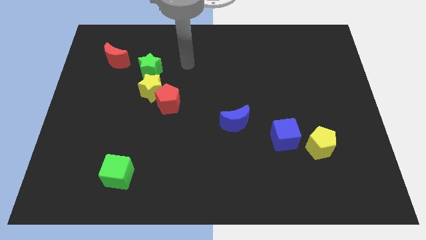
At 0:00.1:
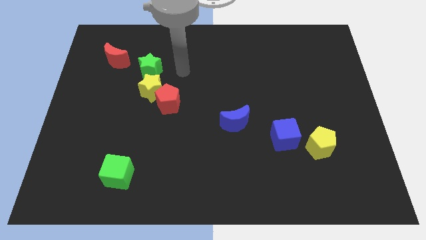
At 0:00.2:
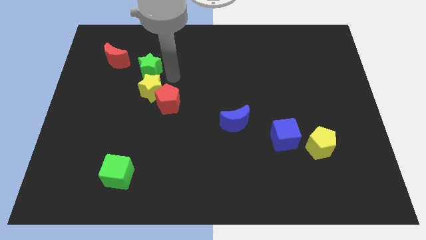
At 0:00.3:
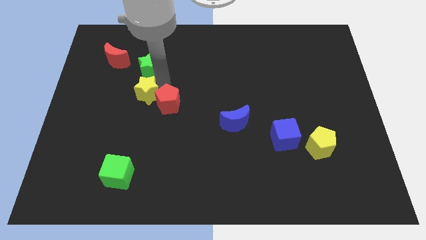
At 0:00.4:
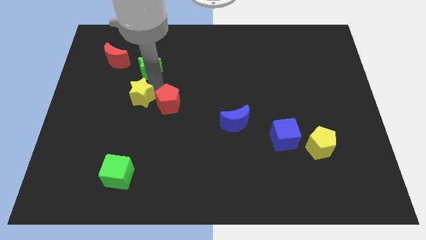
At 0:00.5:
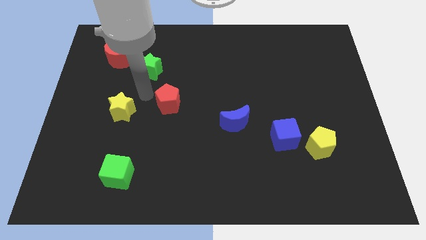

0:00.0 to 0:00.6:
move the red pentagon away from the yellow star

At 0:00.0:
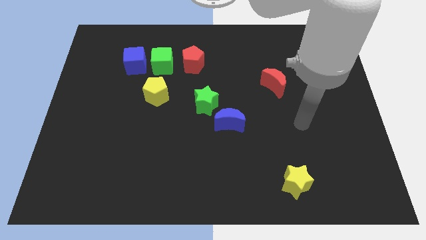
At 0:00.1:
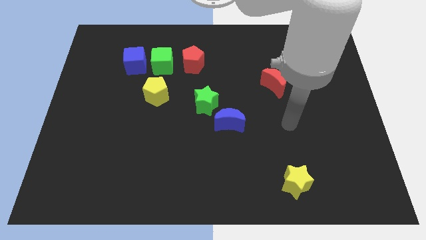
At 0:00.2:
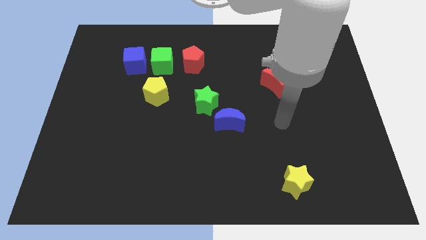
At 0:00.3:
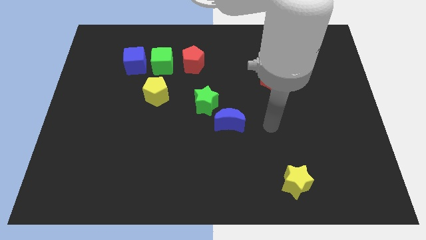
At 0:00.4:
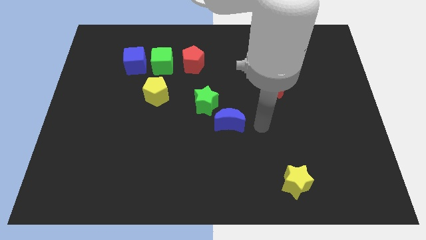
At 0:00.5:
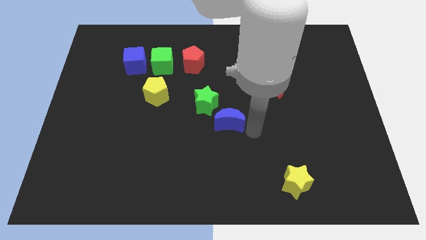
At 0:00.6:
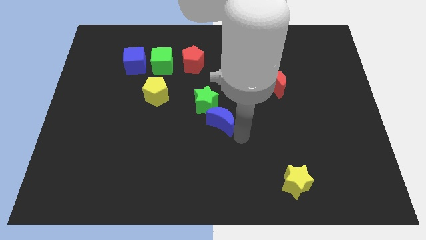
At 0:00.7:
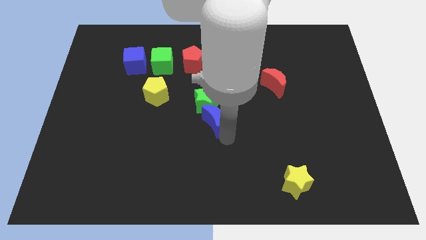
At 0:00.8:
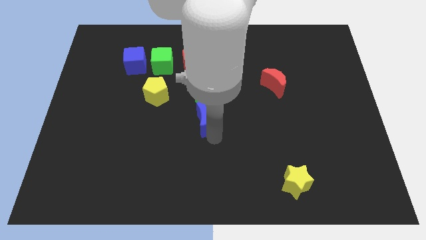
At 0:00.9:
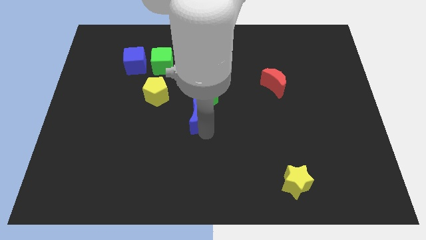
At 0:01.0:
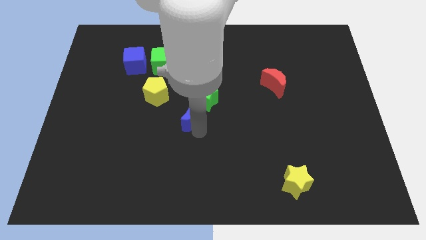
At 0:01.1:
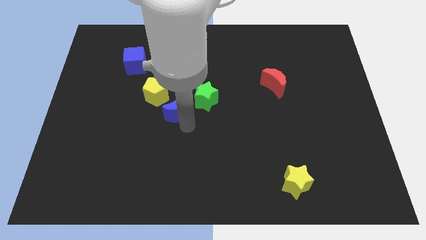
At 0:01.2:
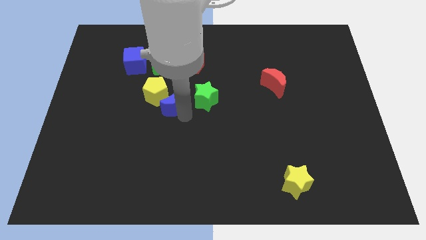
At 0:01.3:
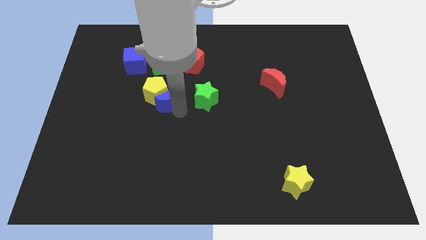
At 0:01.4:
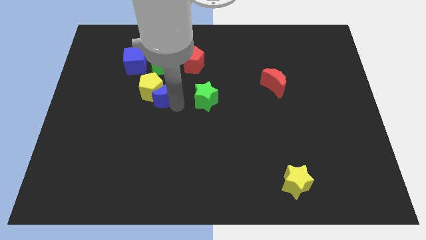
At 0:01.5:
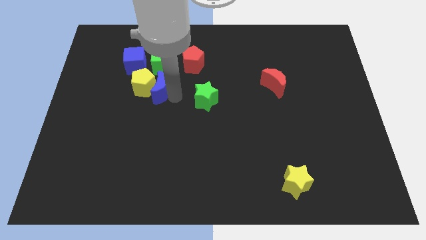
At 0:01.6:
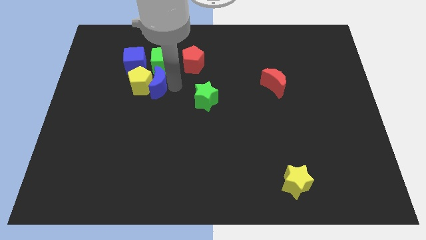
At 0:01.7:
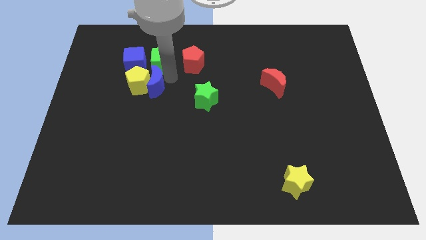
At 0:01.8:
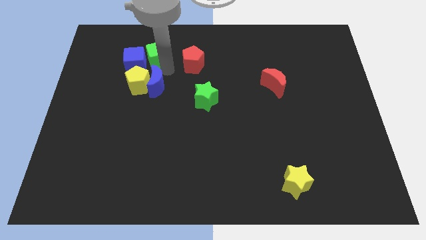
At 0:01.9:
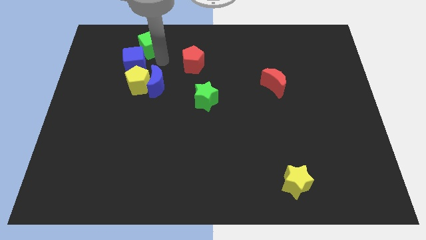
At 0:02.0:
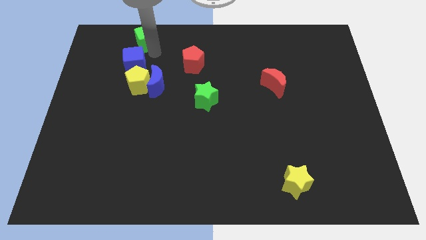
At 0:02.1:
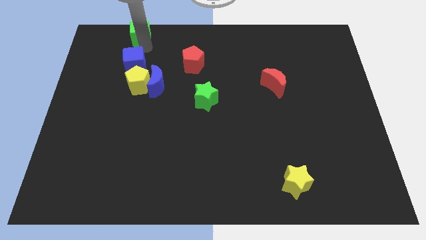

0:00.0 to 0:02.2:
separate the blue cube from the green cube

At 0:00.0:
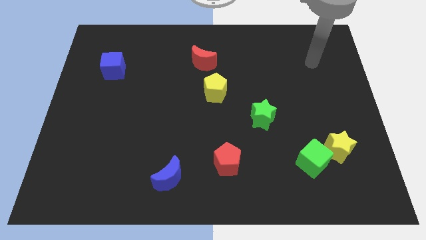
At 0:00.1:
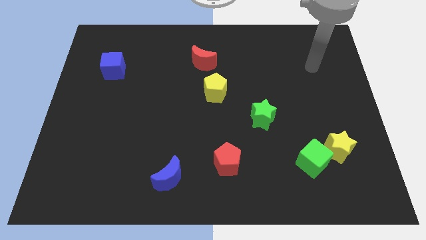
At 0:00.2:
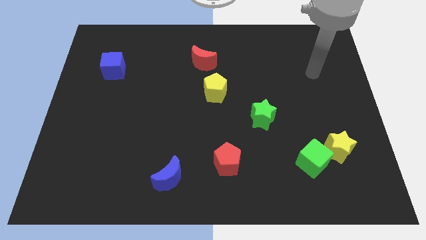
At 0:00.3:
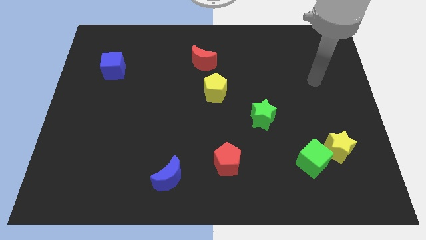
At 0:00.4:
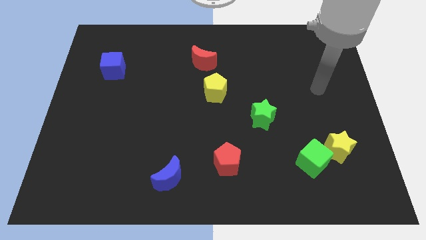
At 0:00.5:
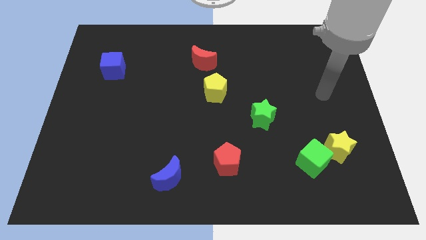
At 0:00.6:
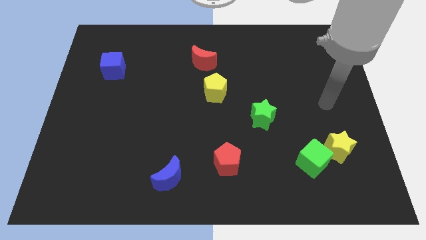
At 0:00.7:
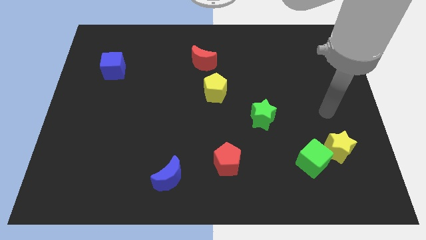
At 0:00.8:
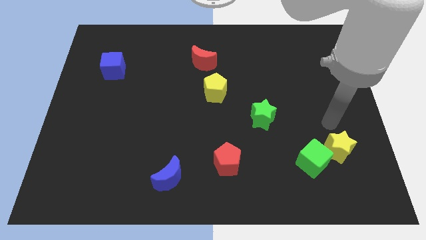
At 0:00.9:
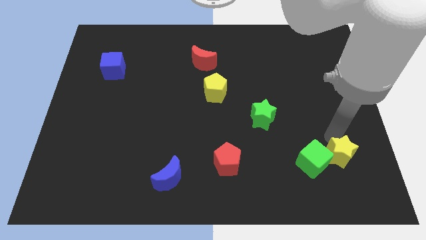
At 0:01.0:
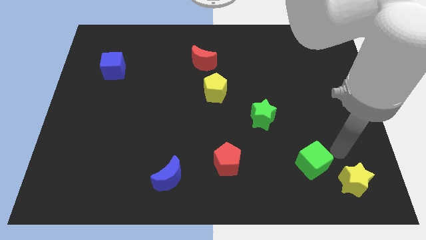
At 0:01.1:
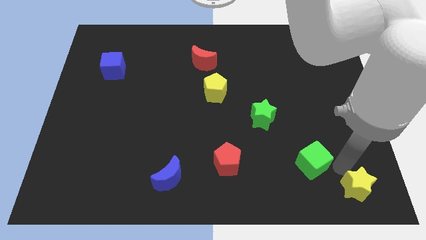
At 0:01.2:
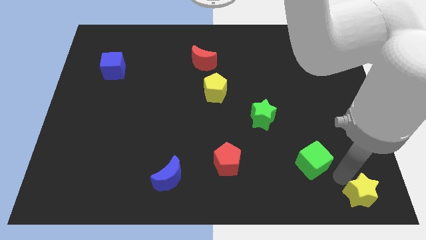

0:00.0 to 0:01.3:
move the green cube away from the yellow star

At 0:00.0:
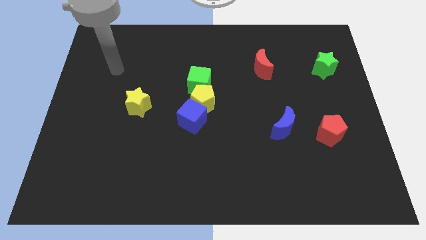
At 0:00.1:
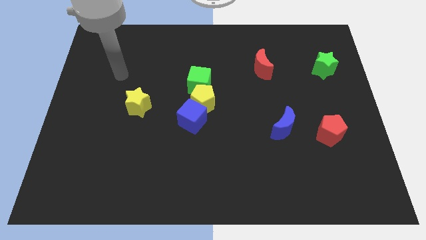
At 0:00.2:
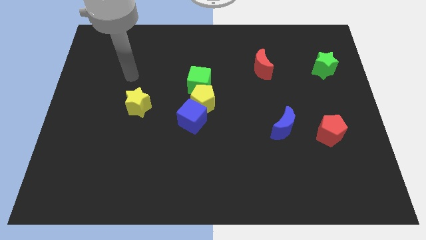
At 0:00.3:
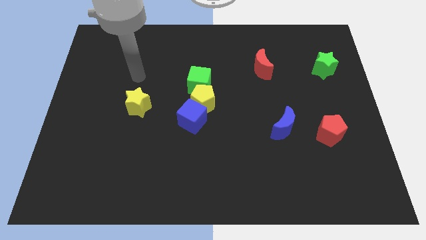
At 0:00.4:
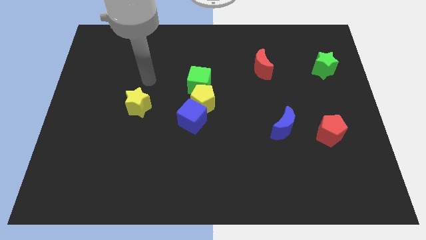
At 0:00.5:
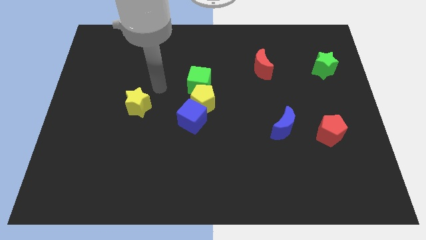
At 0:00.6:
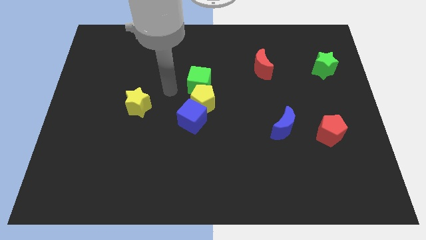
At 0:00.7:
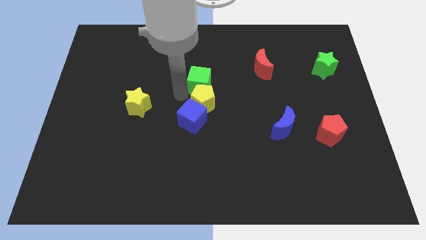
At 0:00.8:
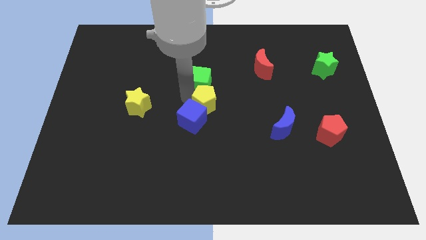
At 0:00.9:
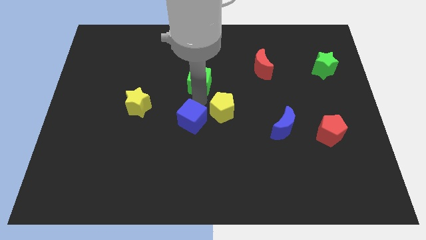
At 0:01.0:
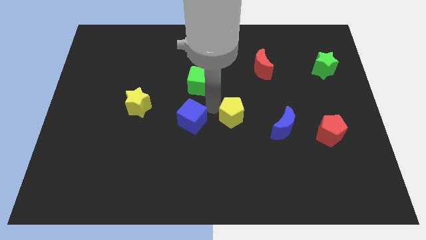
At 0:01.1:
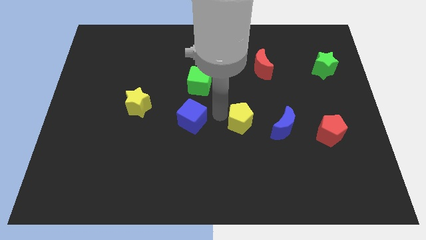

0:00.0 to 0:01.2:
move the blue cube away from the yellow pentagon

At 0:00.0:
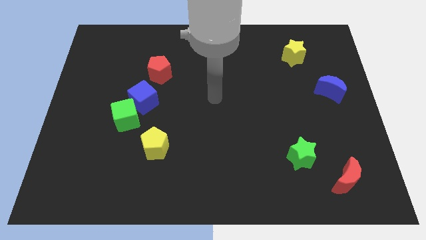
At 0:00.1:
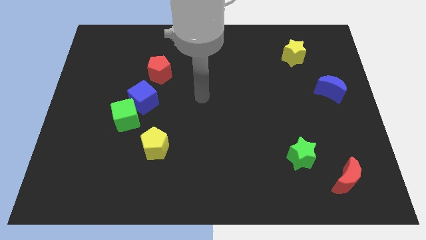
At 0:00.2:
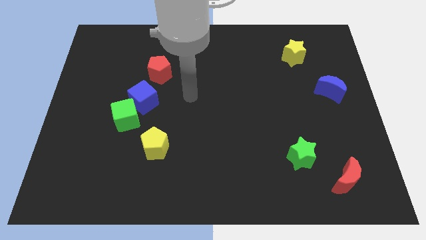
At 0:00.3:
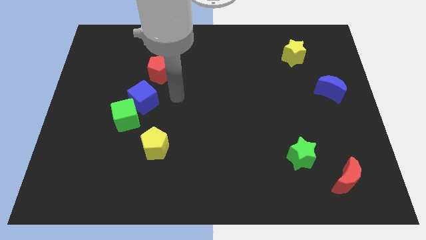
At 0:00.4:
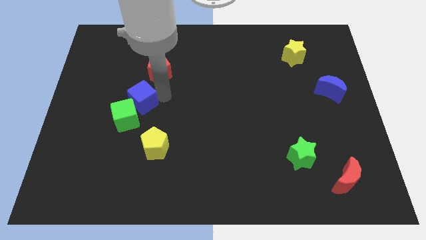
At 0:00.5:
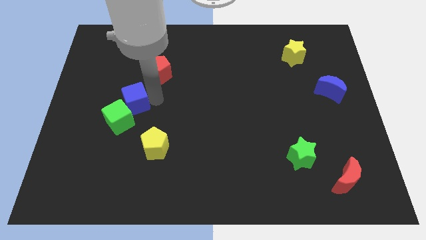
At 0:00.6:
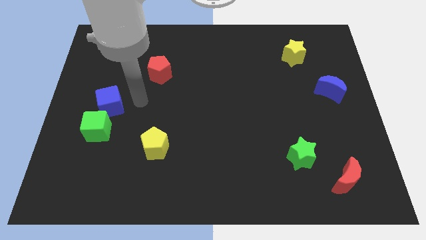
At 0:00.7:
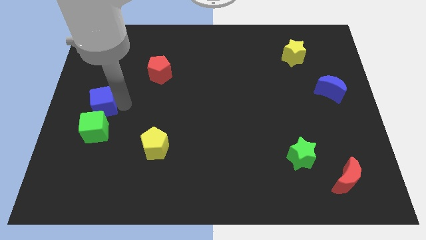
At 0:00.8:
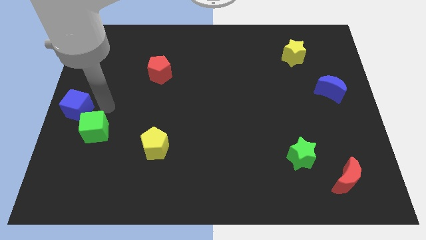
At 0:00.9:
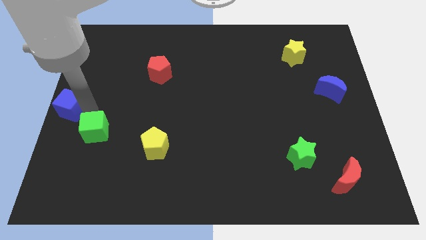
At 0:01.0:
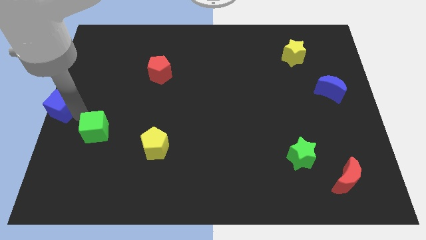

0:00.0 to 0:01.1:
move the green cube away from the blue cube

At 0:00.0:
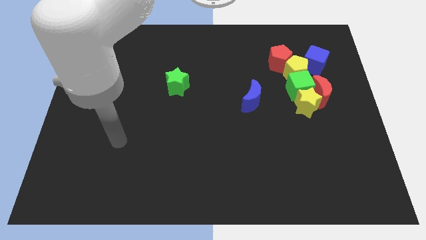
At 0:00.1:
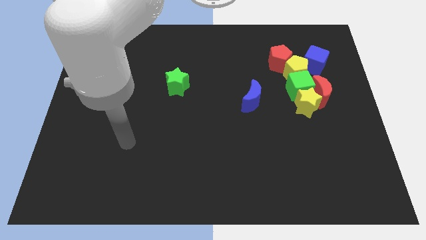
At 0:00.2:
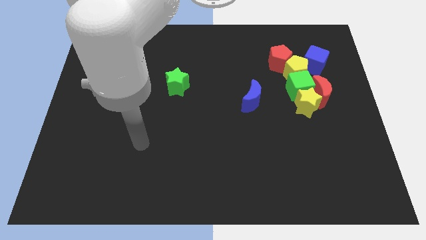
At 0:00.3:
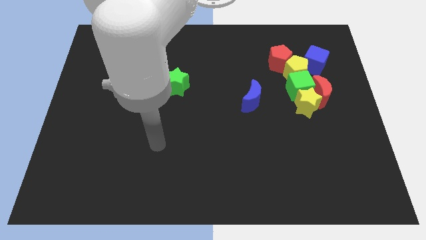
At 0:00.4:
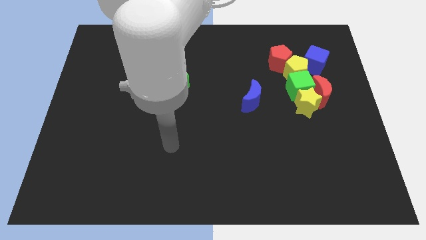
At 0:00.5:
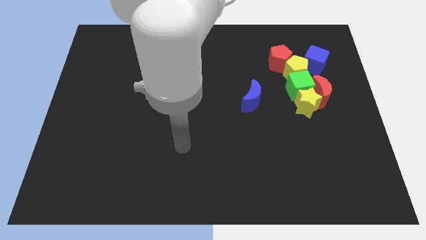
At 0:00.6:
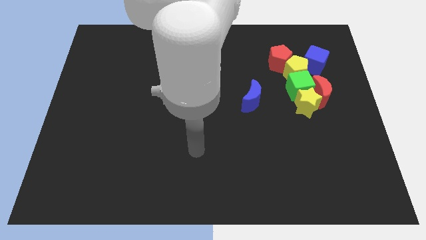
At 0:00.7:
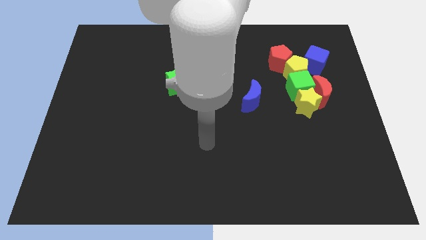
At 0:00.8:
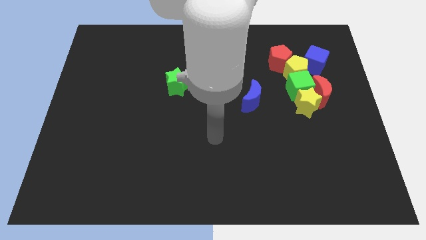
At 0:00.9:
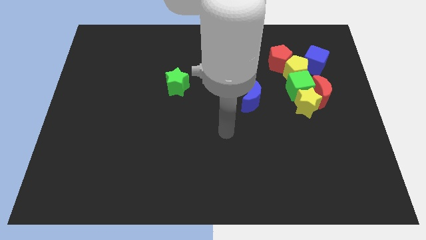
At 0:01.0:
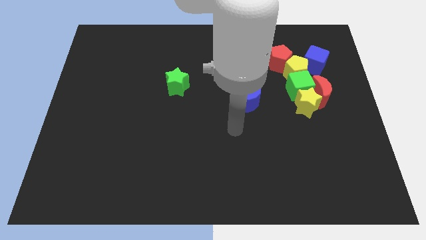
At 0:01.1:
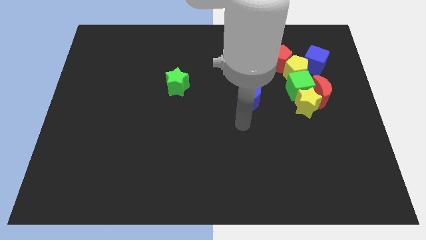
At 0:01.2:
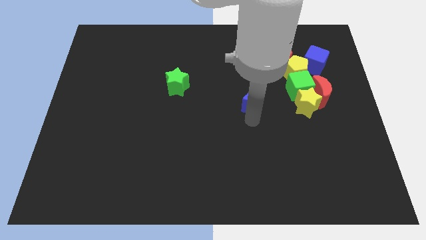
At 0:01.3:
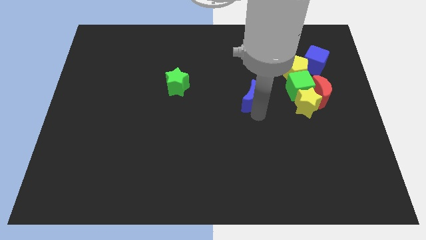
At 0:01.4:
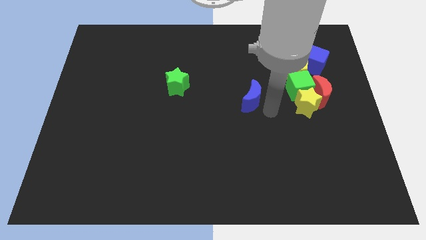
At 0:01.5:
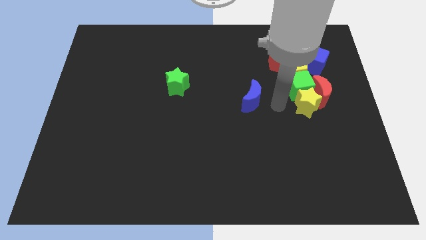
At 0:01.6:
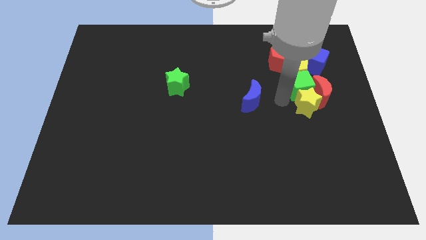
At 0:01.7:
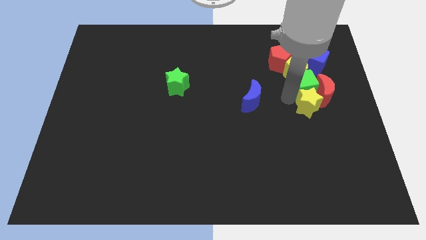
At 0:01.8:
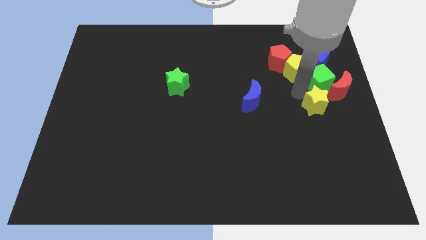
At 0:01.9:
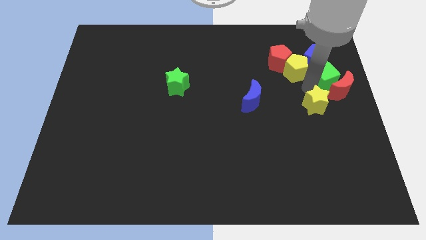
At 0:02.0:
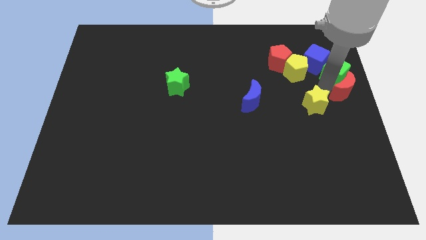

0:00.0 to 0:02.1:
separate the yellow star from the green cube and red moon

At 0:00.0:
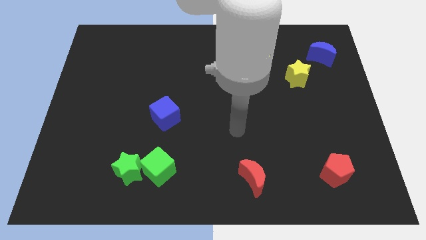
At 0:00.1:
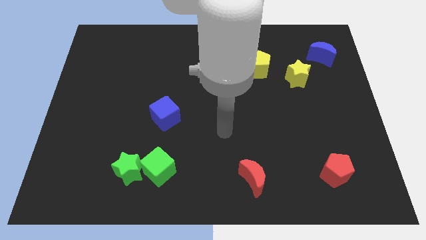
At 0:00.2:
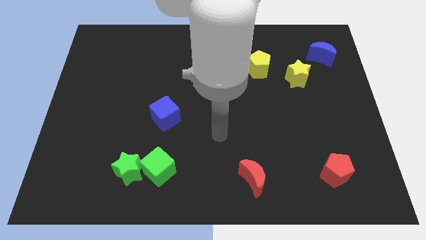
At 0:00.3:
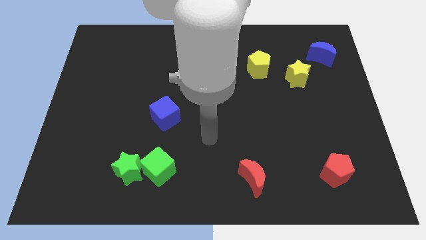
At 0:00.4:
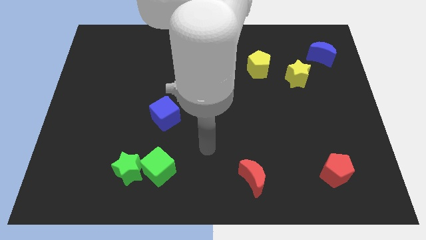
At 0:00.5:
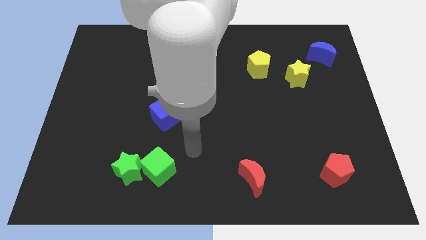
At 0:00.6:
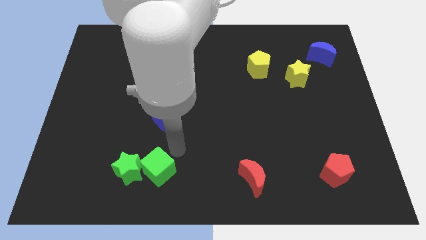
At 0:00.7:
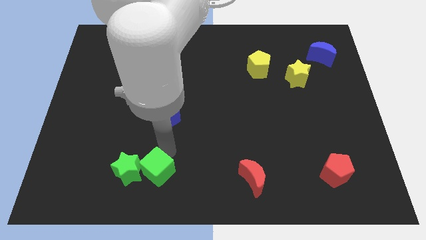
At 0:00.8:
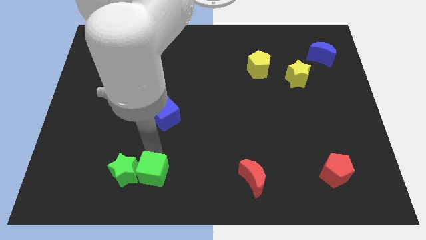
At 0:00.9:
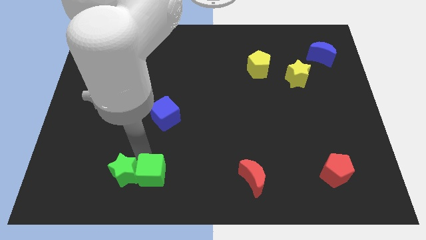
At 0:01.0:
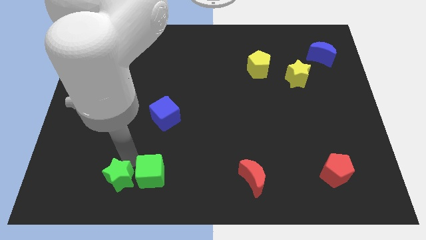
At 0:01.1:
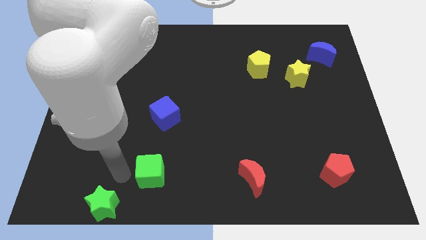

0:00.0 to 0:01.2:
move the green cube away from the green star
